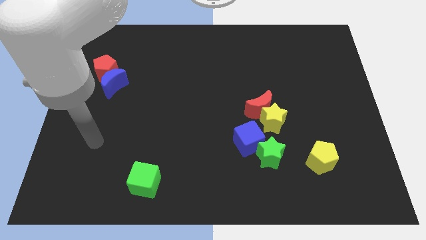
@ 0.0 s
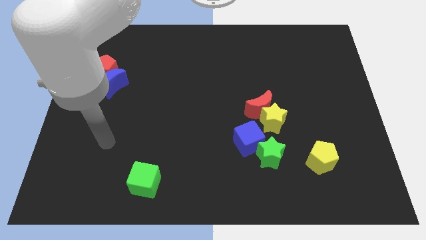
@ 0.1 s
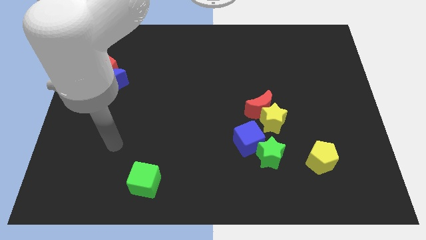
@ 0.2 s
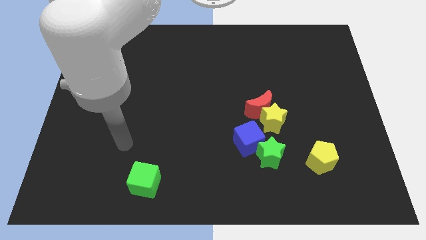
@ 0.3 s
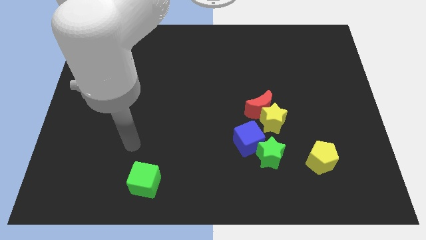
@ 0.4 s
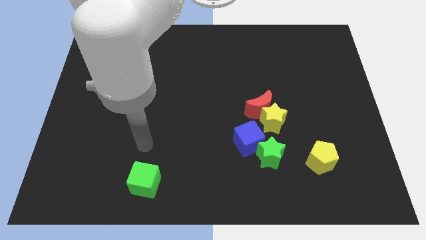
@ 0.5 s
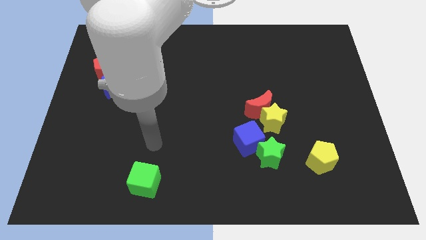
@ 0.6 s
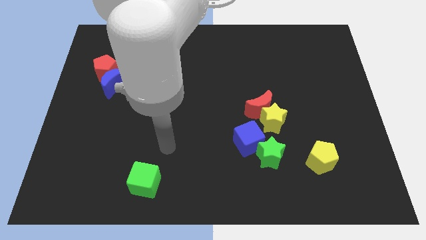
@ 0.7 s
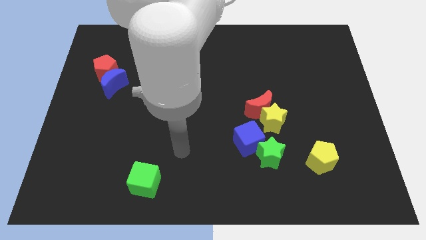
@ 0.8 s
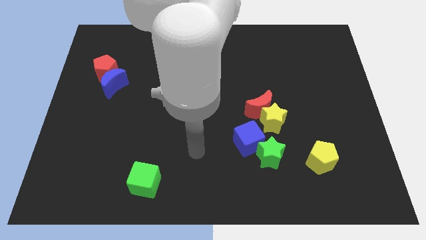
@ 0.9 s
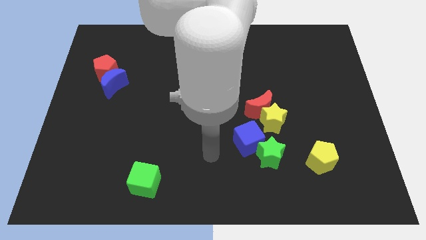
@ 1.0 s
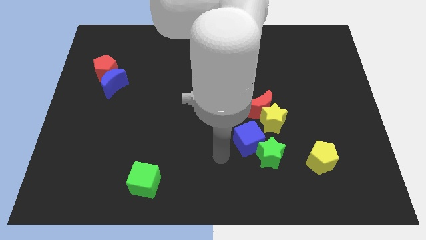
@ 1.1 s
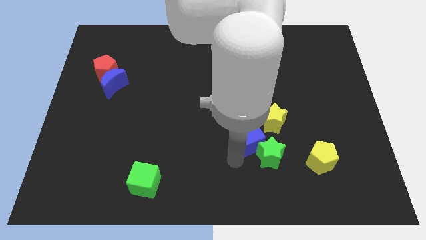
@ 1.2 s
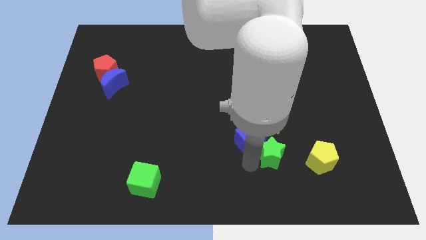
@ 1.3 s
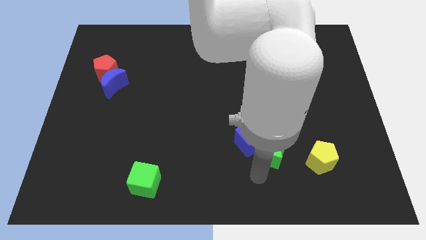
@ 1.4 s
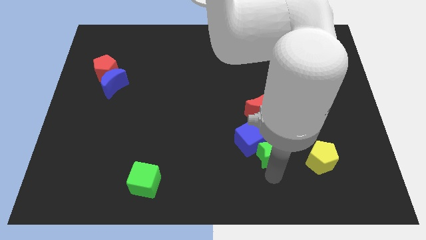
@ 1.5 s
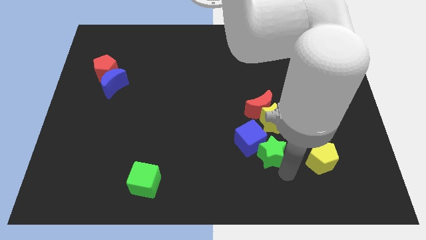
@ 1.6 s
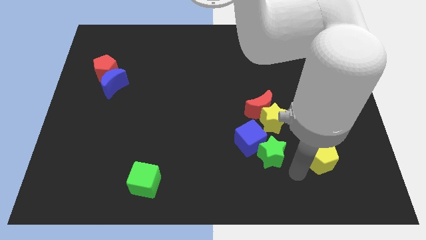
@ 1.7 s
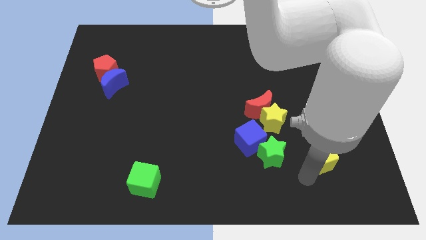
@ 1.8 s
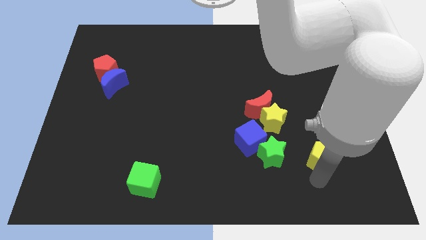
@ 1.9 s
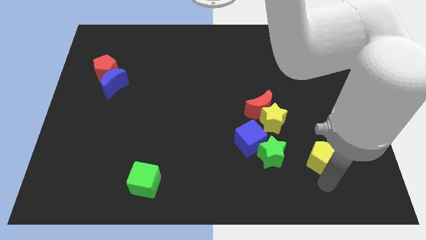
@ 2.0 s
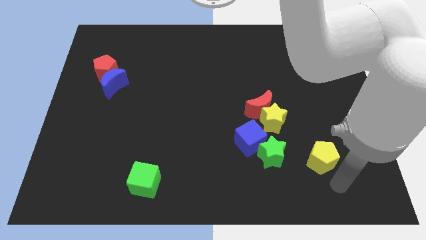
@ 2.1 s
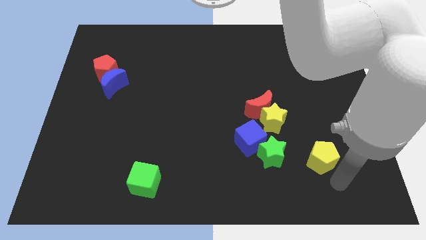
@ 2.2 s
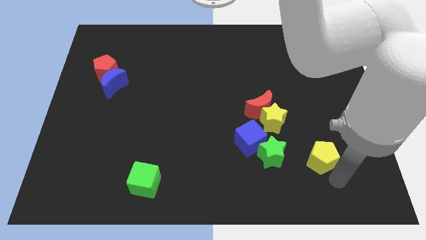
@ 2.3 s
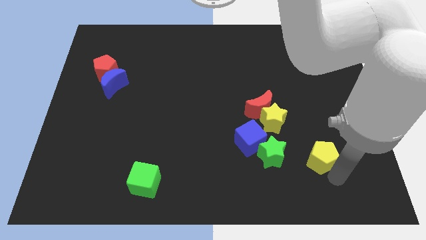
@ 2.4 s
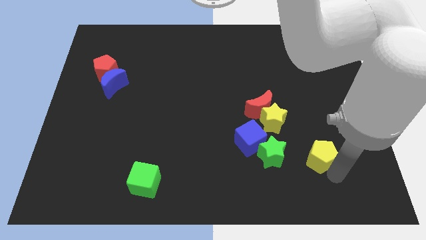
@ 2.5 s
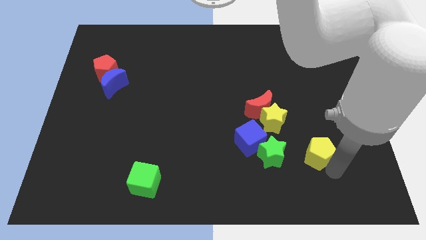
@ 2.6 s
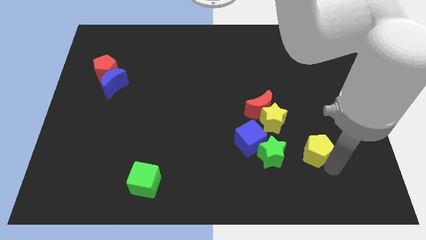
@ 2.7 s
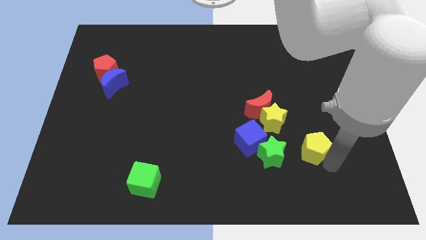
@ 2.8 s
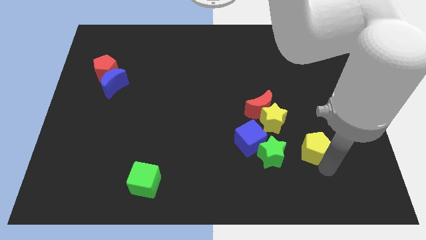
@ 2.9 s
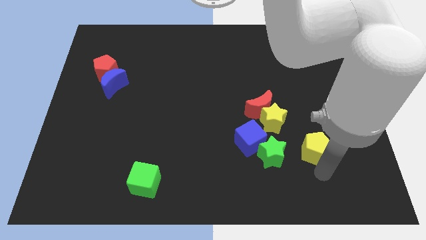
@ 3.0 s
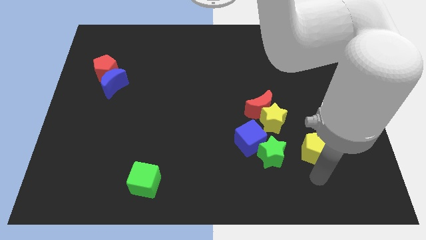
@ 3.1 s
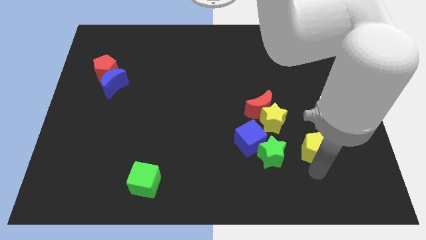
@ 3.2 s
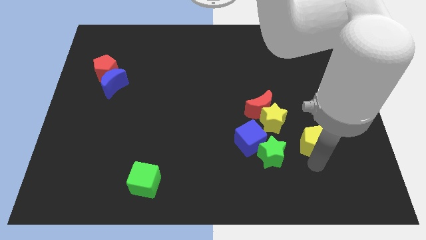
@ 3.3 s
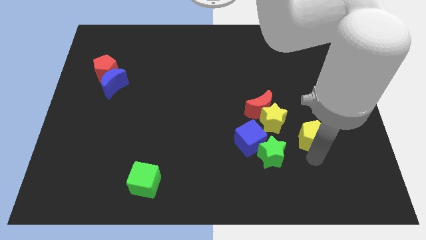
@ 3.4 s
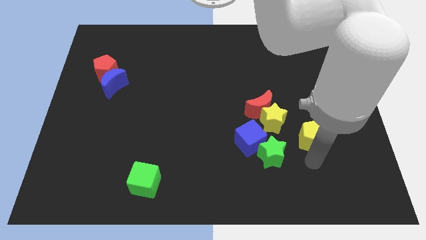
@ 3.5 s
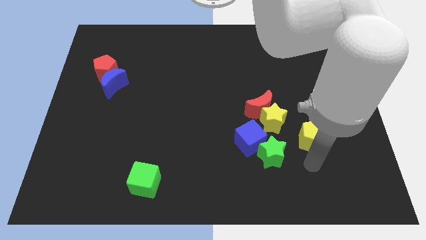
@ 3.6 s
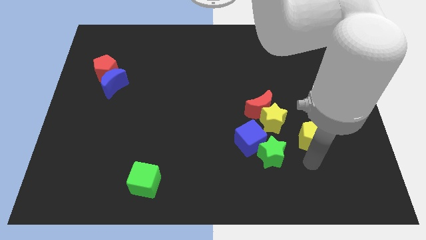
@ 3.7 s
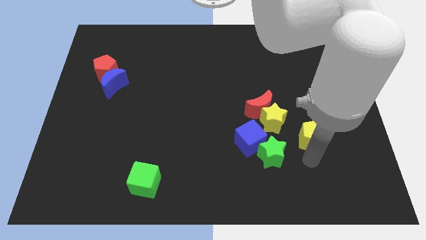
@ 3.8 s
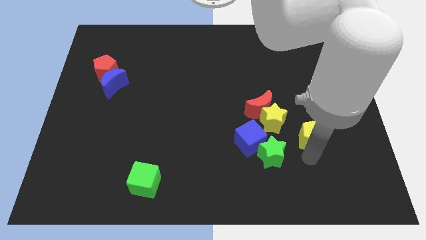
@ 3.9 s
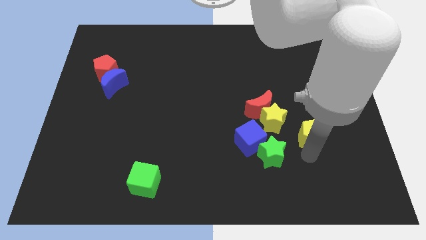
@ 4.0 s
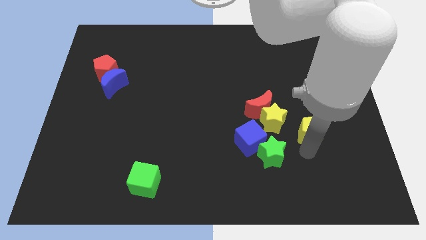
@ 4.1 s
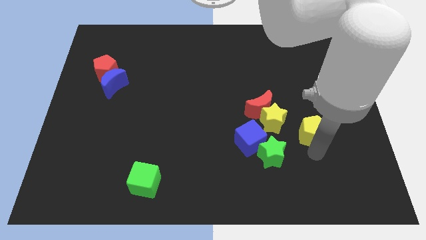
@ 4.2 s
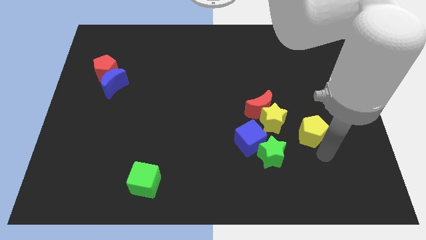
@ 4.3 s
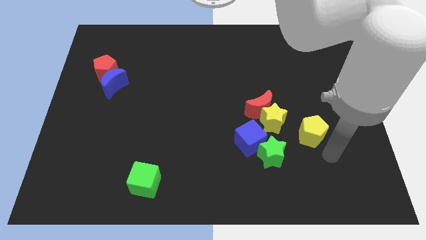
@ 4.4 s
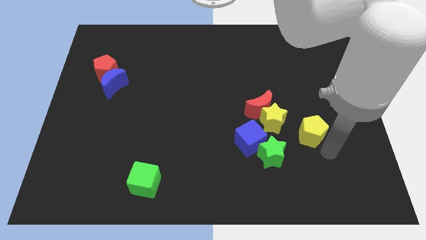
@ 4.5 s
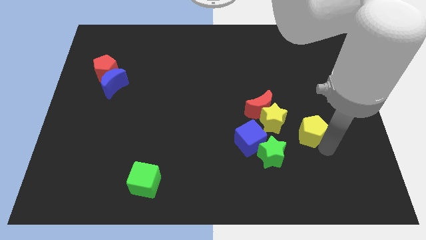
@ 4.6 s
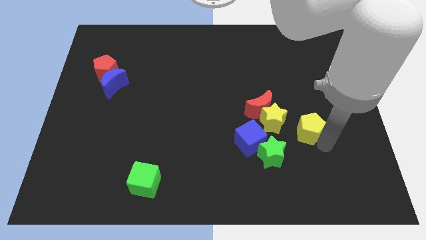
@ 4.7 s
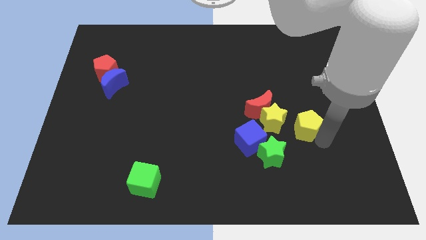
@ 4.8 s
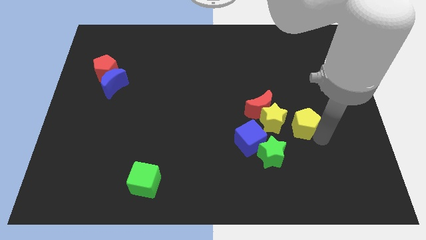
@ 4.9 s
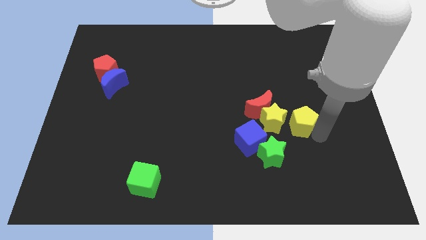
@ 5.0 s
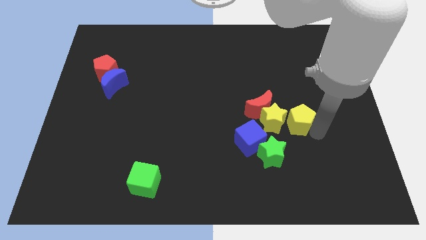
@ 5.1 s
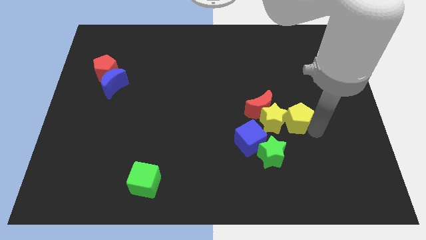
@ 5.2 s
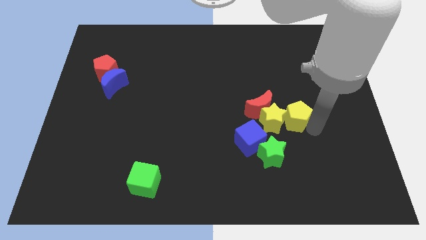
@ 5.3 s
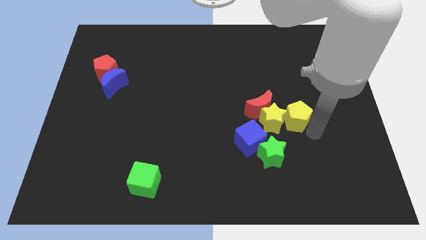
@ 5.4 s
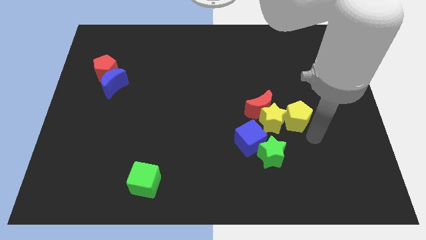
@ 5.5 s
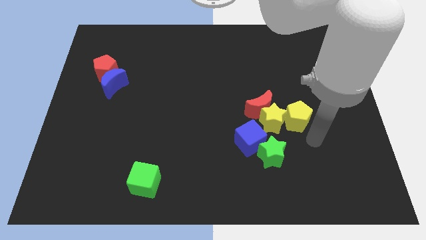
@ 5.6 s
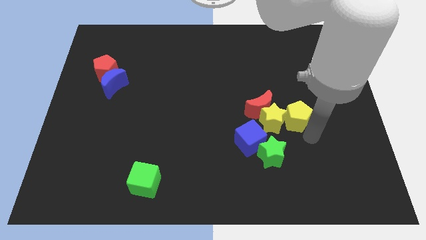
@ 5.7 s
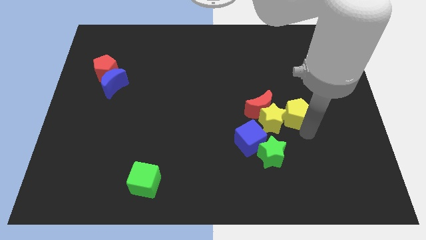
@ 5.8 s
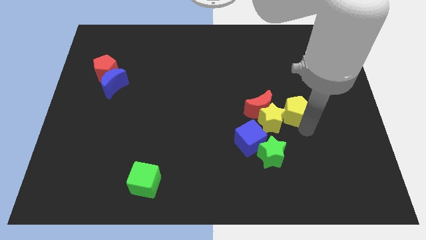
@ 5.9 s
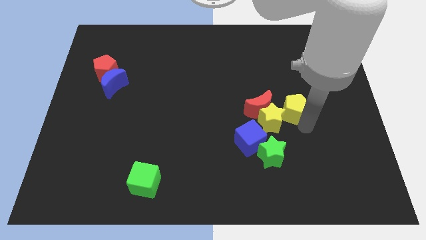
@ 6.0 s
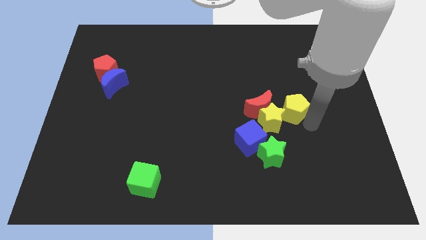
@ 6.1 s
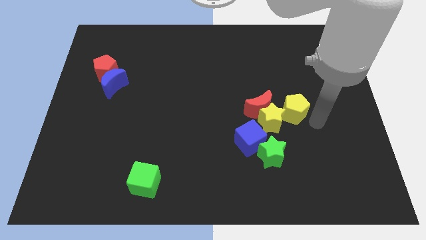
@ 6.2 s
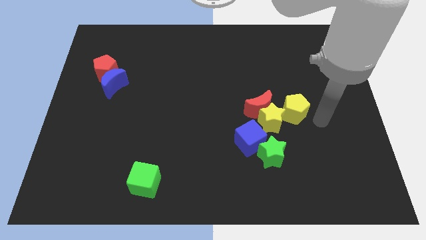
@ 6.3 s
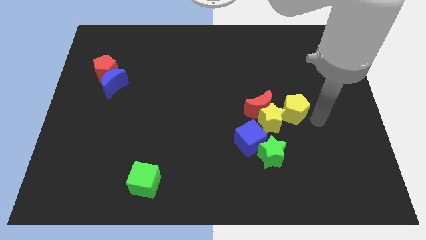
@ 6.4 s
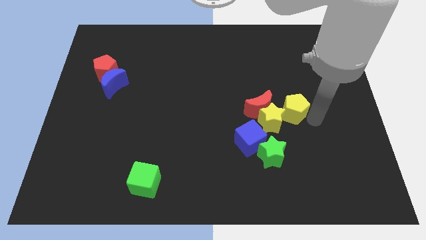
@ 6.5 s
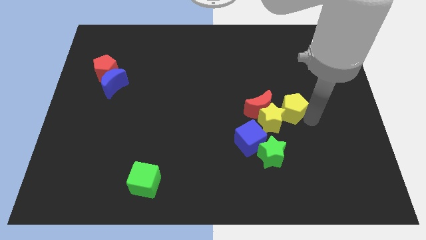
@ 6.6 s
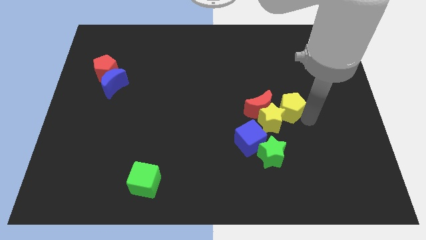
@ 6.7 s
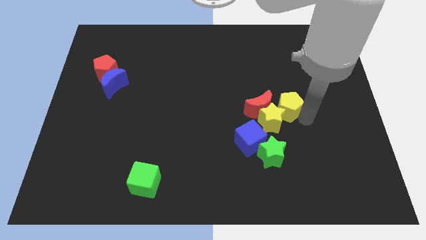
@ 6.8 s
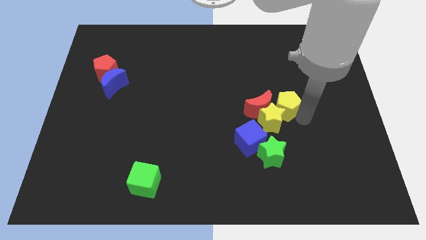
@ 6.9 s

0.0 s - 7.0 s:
push the yellow pentagon next to the red moon
